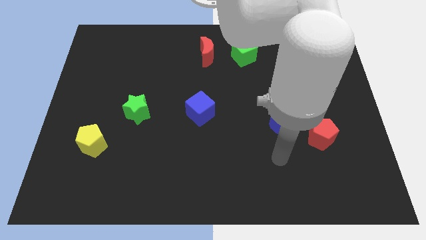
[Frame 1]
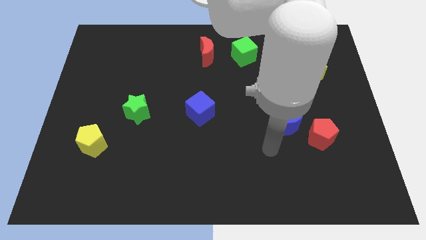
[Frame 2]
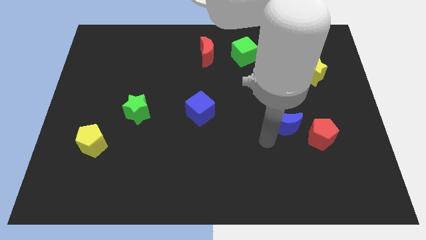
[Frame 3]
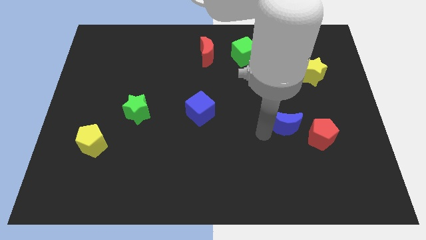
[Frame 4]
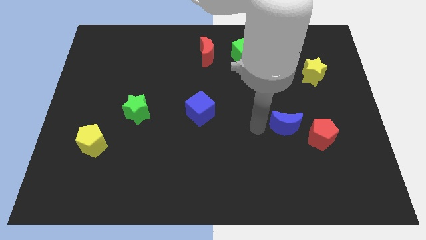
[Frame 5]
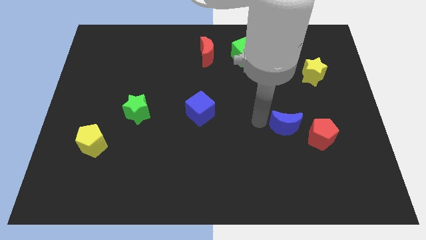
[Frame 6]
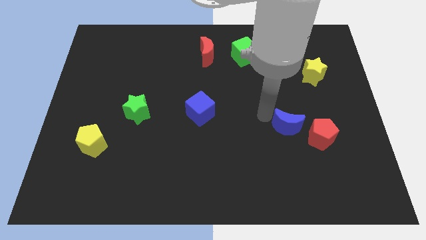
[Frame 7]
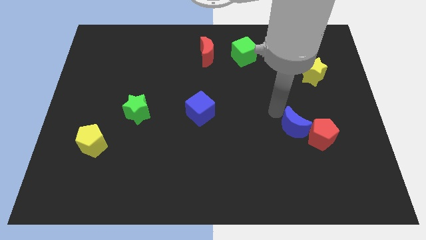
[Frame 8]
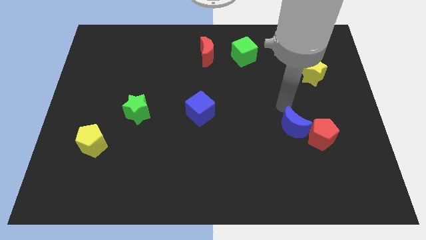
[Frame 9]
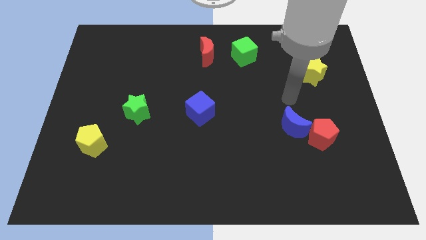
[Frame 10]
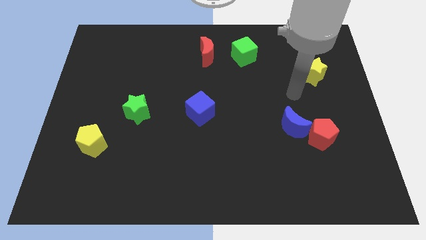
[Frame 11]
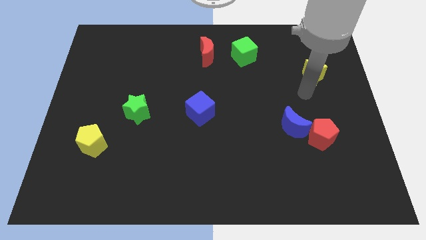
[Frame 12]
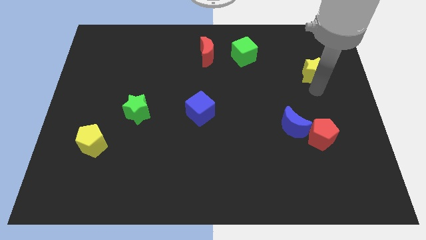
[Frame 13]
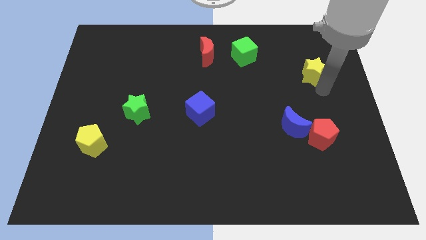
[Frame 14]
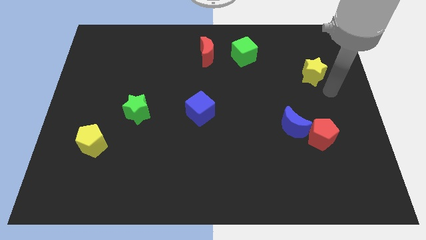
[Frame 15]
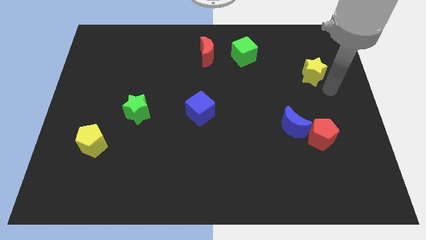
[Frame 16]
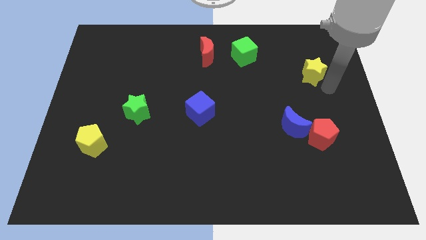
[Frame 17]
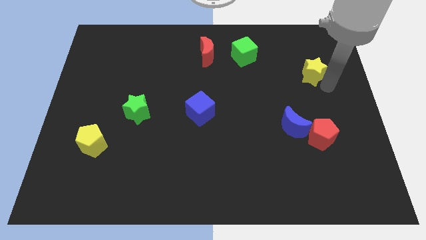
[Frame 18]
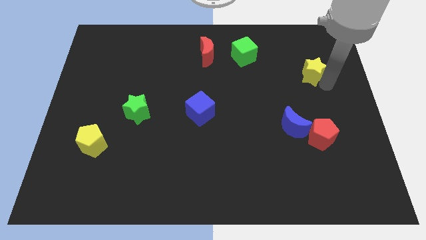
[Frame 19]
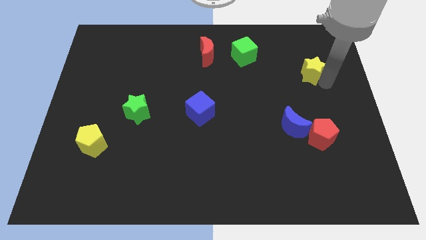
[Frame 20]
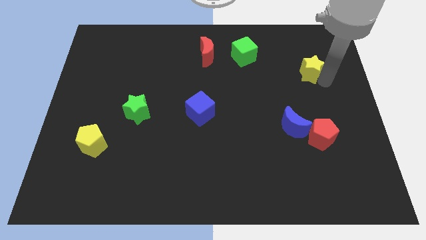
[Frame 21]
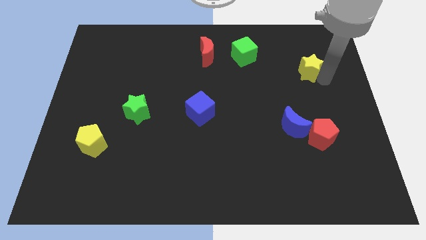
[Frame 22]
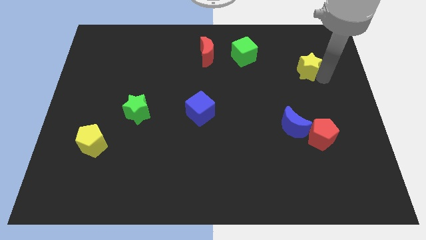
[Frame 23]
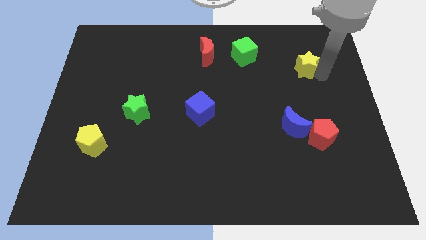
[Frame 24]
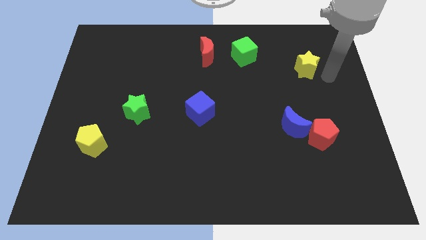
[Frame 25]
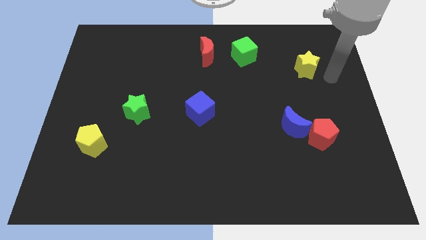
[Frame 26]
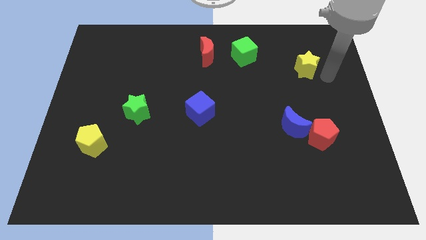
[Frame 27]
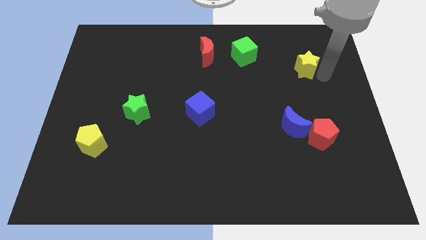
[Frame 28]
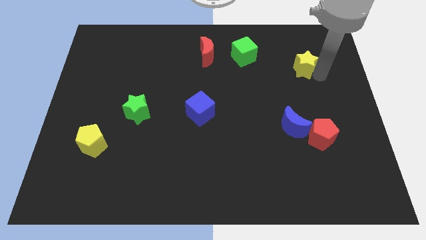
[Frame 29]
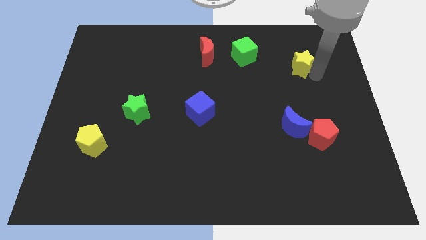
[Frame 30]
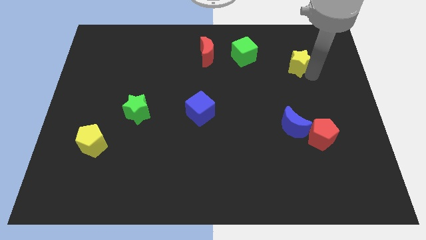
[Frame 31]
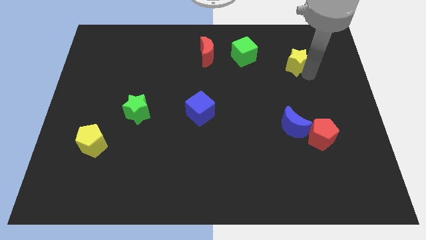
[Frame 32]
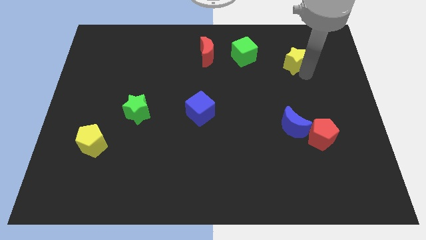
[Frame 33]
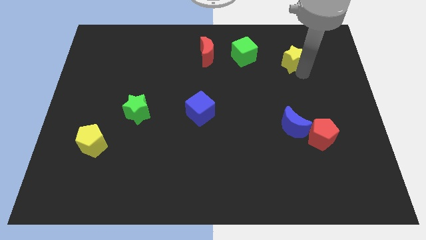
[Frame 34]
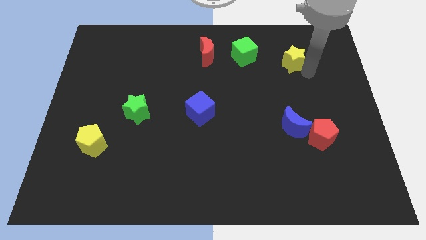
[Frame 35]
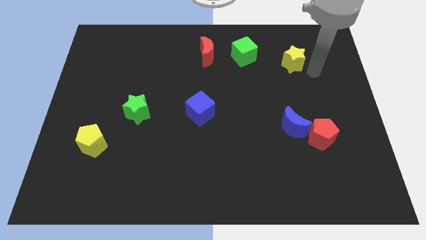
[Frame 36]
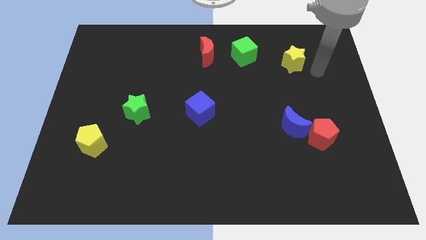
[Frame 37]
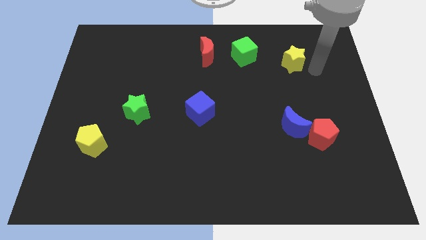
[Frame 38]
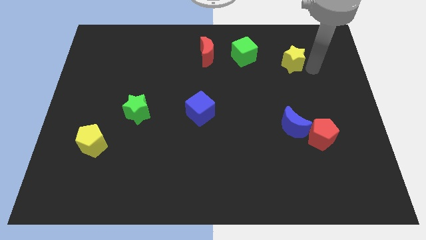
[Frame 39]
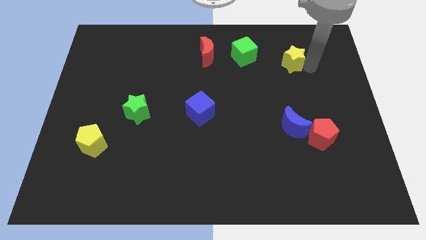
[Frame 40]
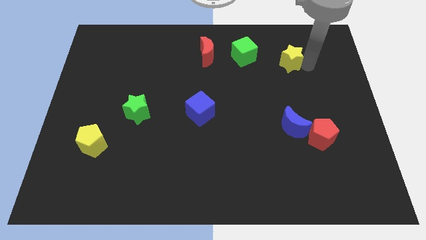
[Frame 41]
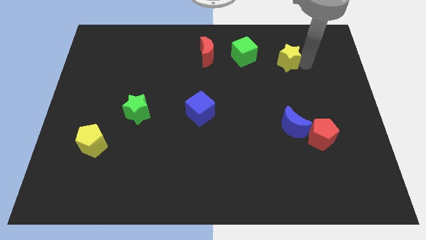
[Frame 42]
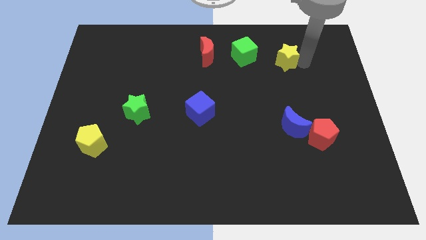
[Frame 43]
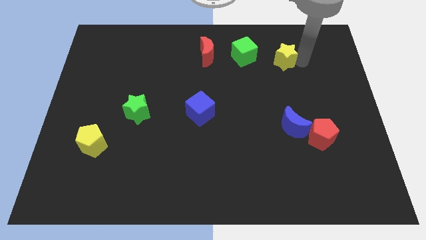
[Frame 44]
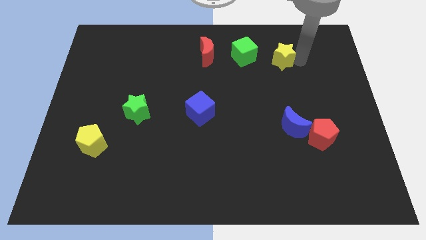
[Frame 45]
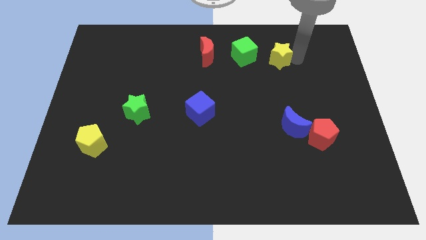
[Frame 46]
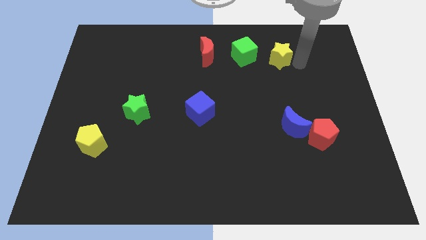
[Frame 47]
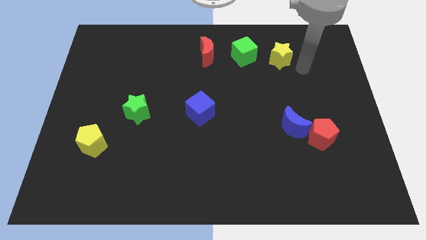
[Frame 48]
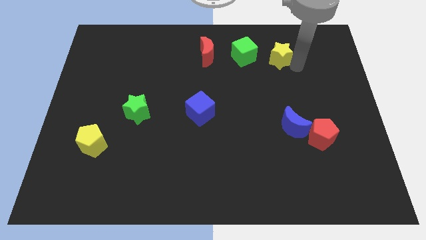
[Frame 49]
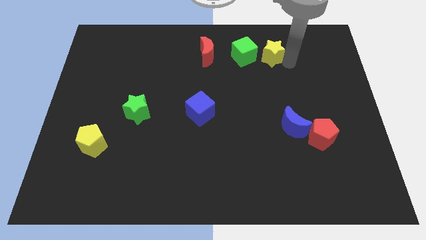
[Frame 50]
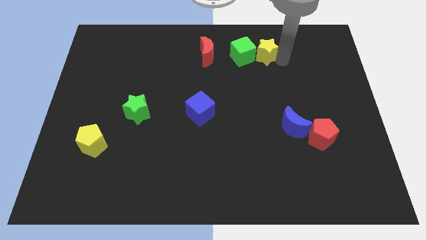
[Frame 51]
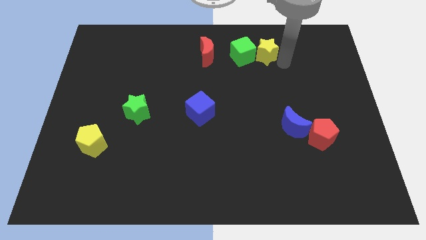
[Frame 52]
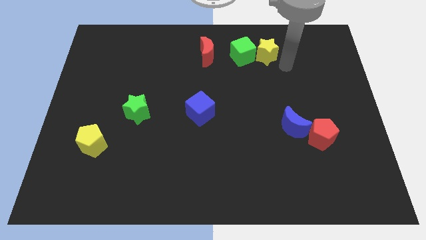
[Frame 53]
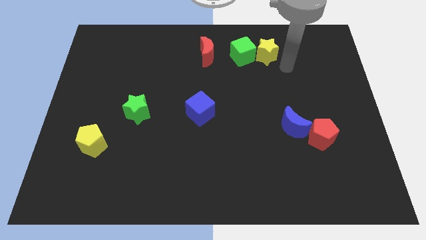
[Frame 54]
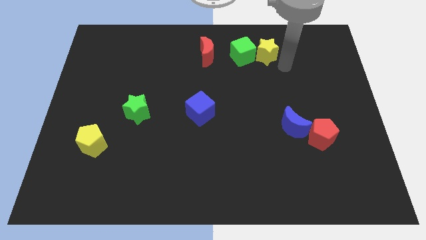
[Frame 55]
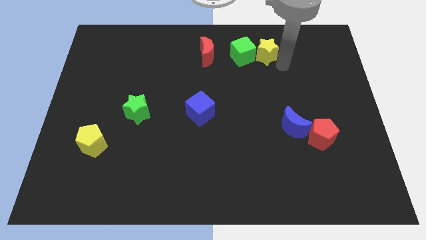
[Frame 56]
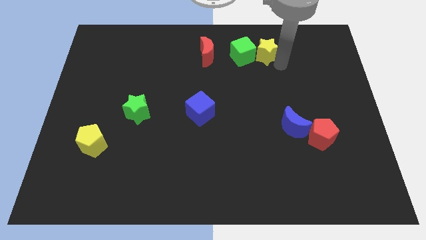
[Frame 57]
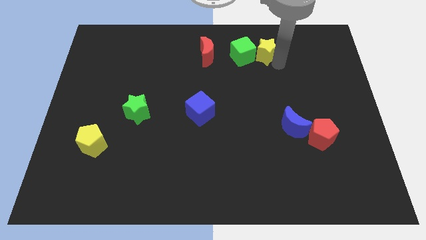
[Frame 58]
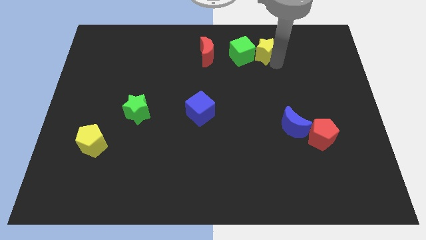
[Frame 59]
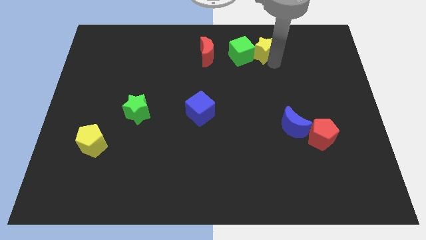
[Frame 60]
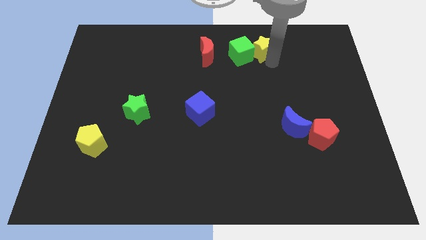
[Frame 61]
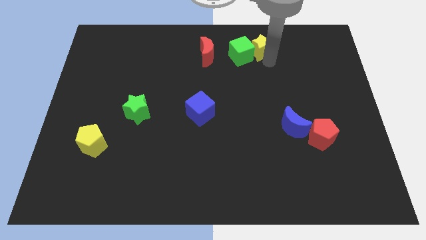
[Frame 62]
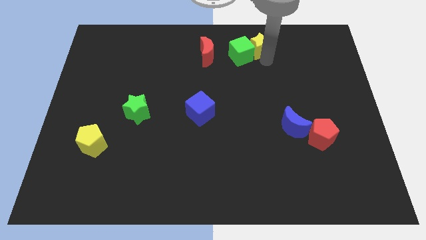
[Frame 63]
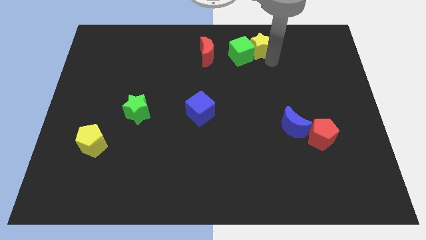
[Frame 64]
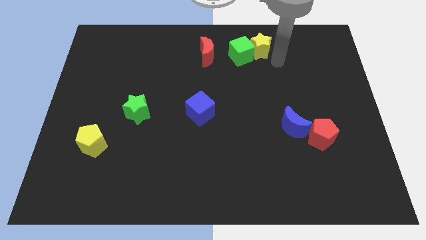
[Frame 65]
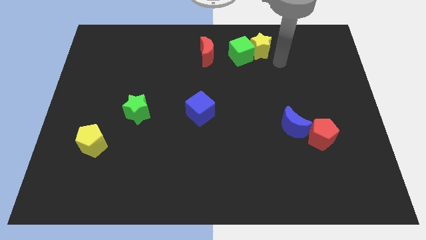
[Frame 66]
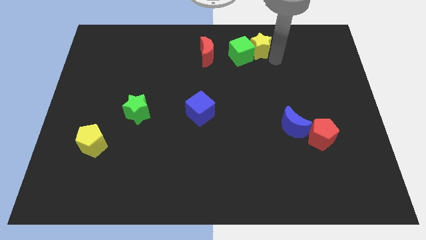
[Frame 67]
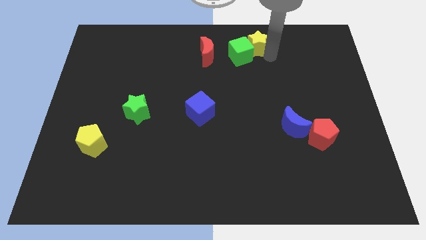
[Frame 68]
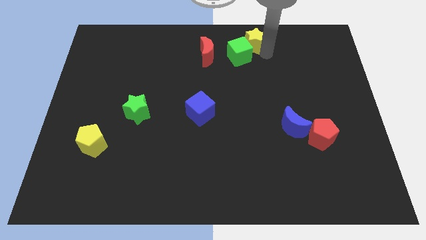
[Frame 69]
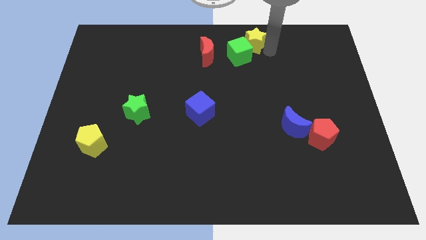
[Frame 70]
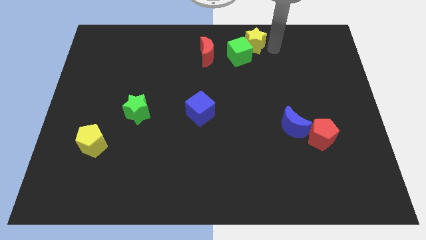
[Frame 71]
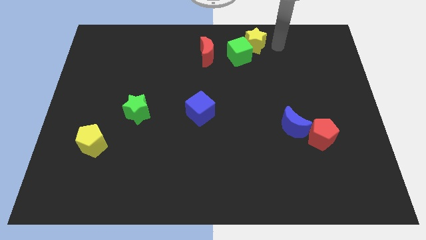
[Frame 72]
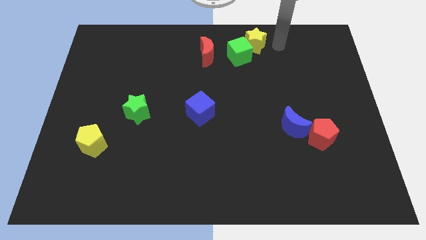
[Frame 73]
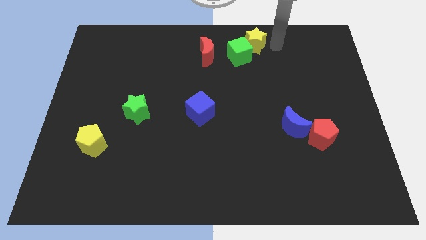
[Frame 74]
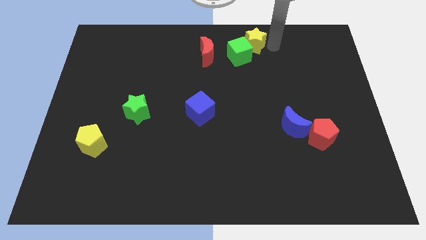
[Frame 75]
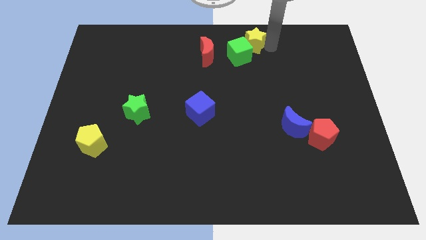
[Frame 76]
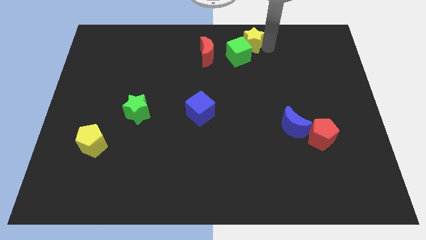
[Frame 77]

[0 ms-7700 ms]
slide the yellow star to the top side
